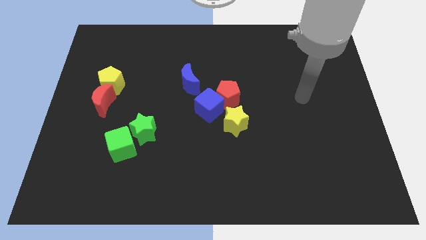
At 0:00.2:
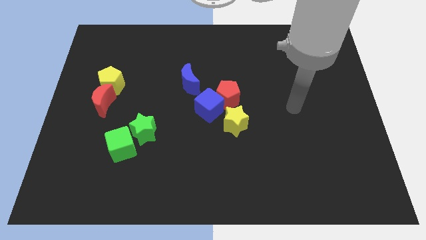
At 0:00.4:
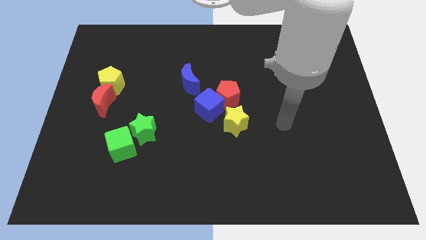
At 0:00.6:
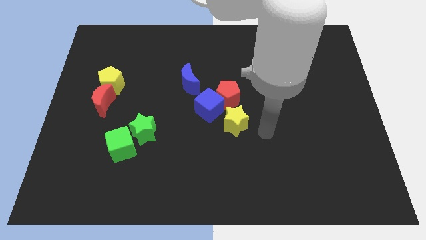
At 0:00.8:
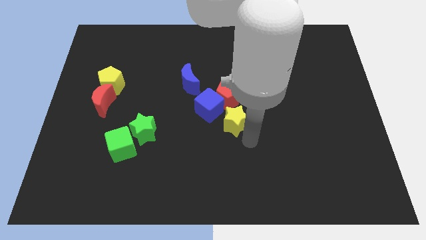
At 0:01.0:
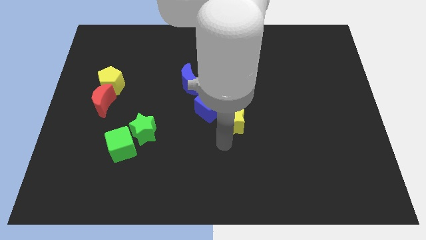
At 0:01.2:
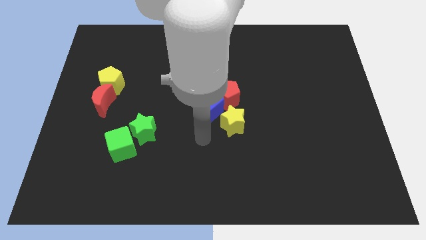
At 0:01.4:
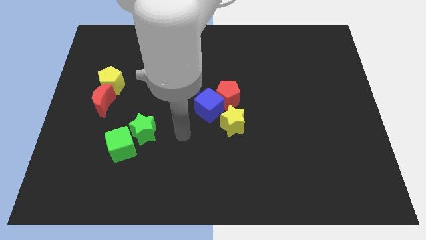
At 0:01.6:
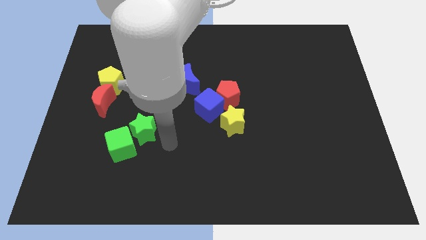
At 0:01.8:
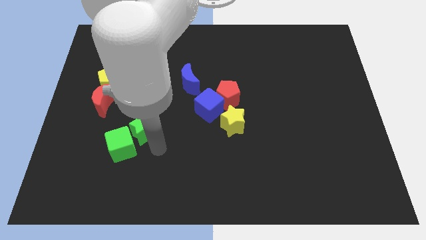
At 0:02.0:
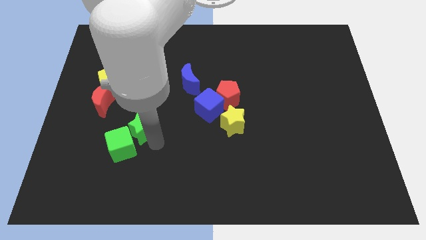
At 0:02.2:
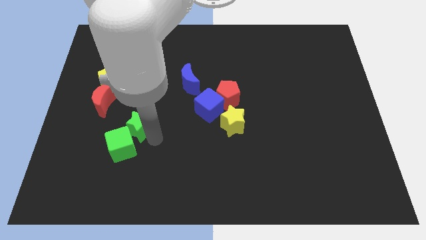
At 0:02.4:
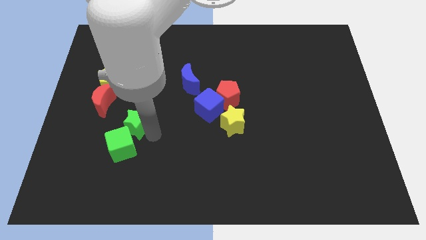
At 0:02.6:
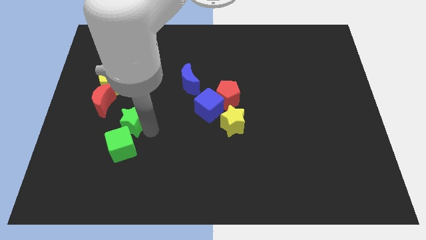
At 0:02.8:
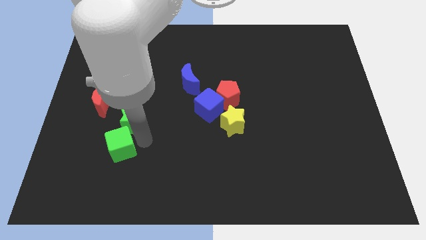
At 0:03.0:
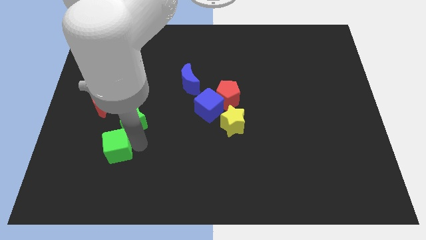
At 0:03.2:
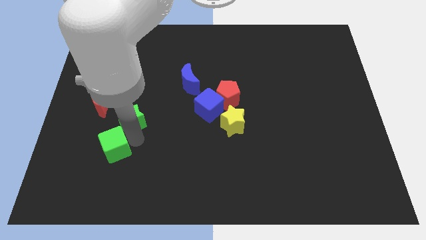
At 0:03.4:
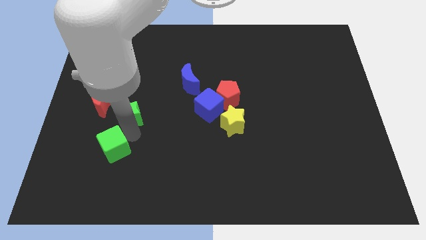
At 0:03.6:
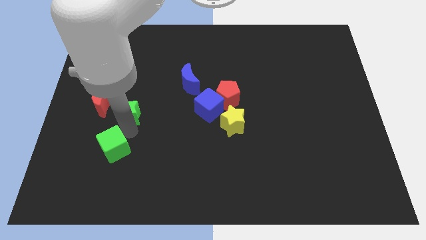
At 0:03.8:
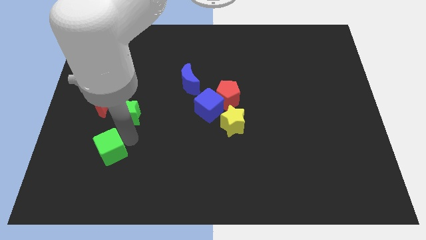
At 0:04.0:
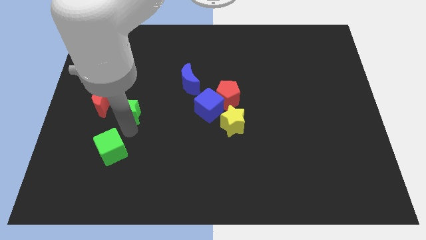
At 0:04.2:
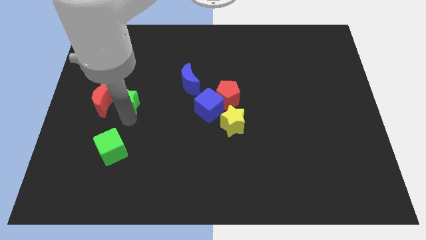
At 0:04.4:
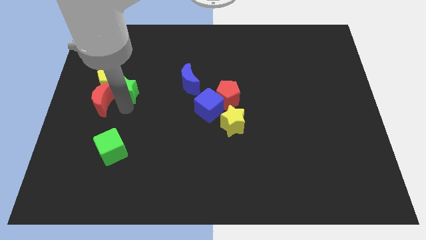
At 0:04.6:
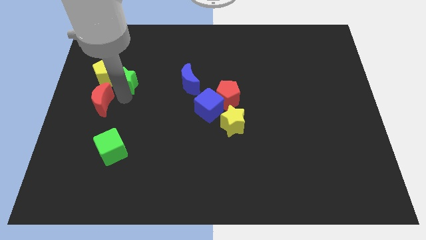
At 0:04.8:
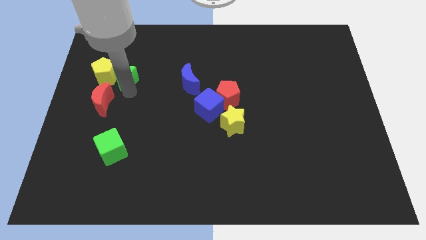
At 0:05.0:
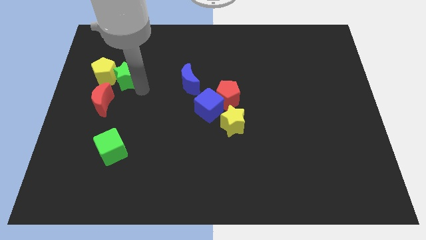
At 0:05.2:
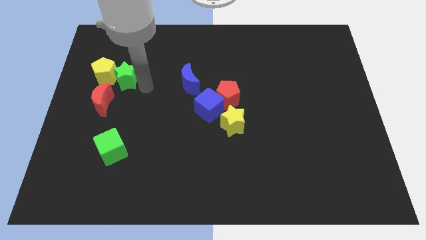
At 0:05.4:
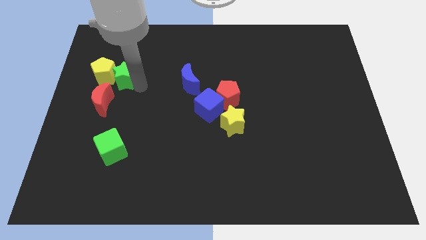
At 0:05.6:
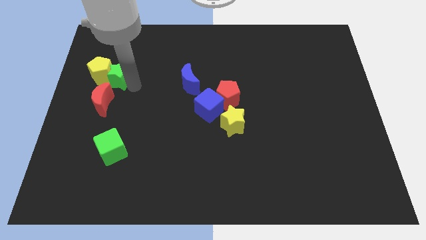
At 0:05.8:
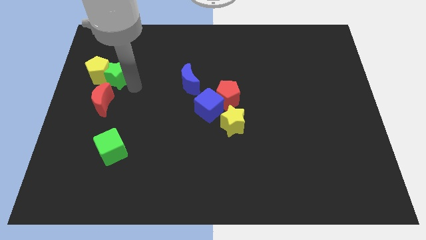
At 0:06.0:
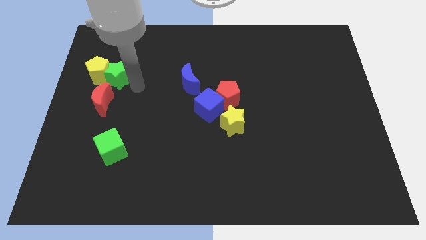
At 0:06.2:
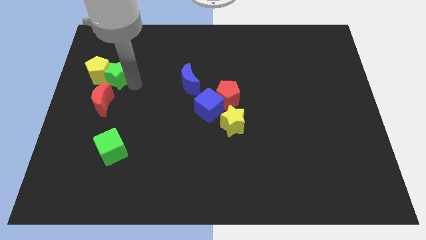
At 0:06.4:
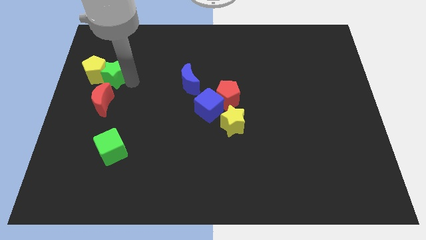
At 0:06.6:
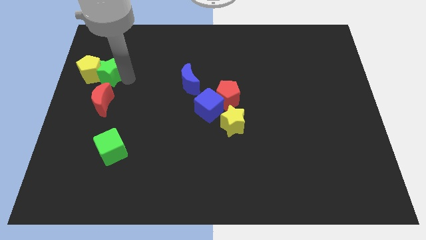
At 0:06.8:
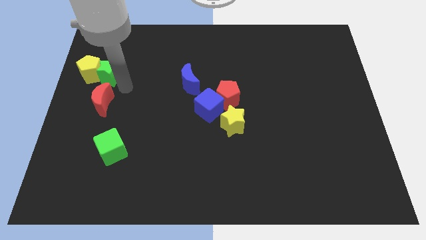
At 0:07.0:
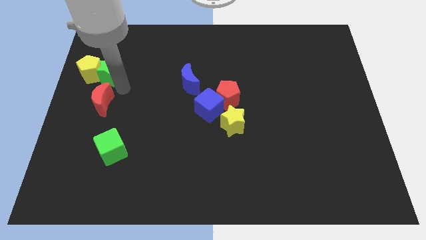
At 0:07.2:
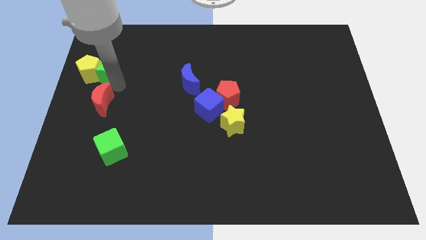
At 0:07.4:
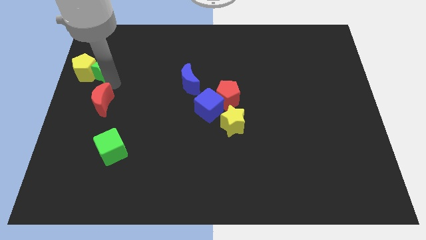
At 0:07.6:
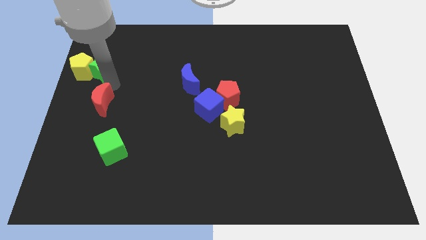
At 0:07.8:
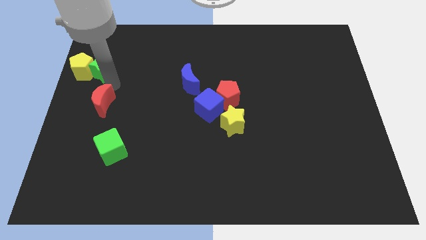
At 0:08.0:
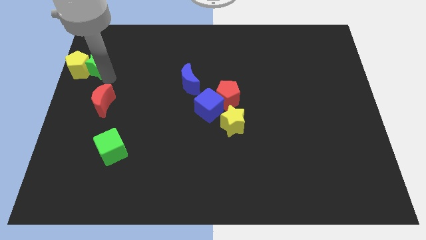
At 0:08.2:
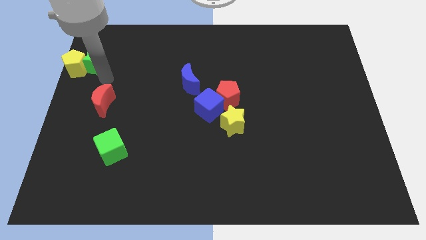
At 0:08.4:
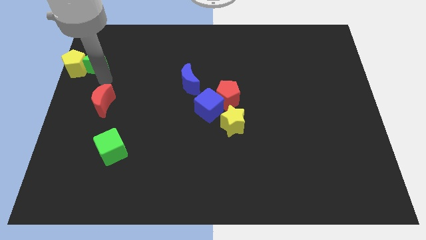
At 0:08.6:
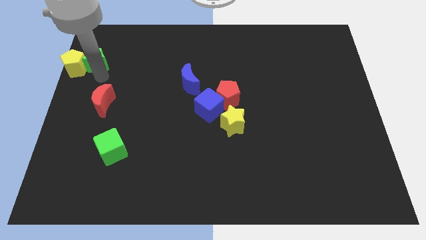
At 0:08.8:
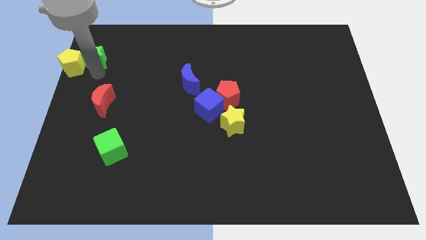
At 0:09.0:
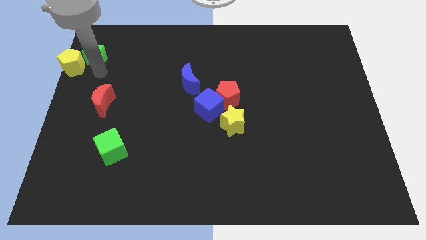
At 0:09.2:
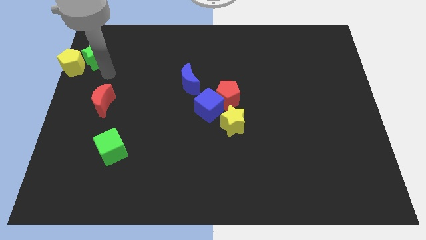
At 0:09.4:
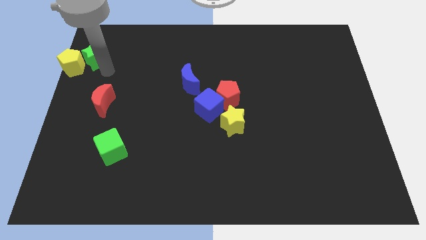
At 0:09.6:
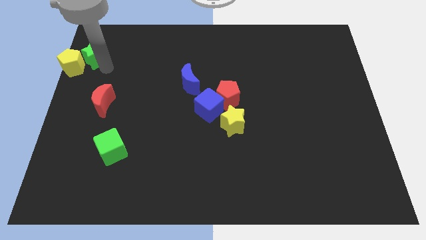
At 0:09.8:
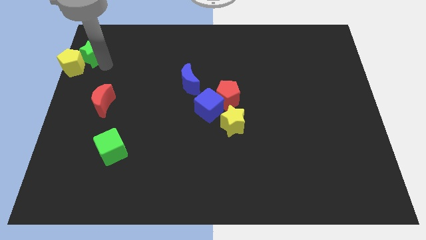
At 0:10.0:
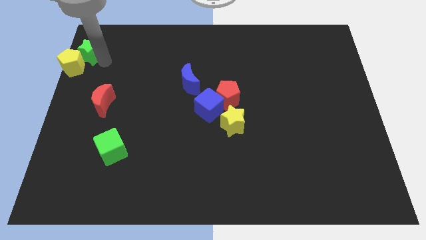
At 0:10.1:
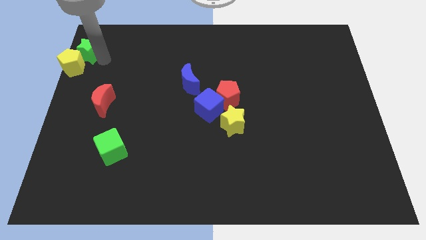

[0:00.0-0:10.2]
move the green star to the top left of the board

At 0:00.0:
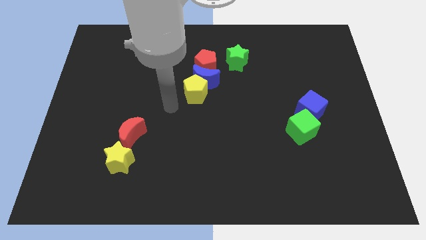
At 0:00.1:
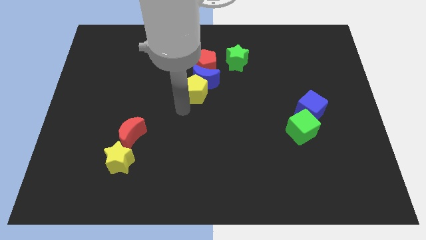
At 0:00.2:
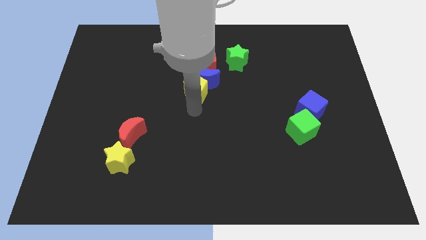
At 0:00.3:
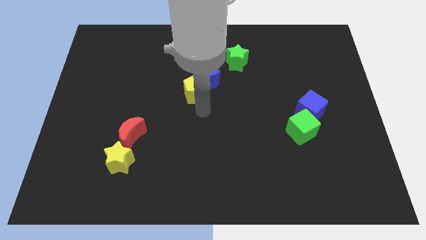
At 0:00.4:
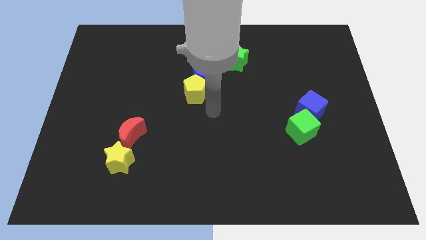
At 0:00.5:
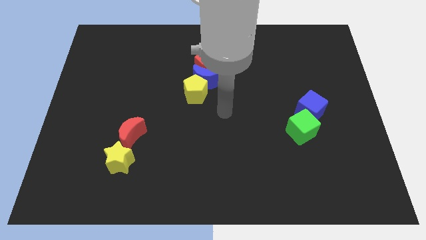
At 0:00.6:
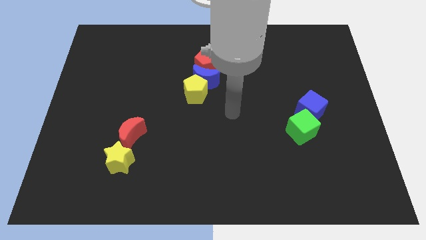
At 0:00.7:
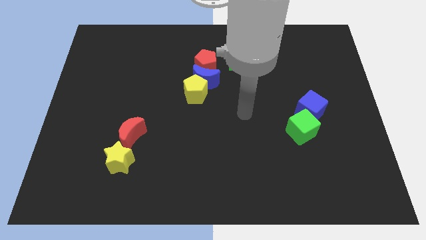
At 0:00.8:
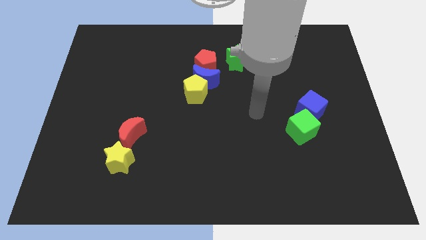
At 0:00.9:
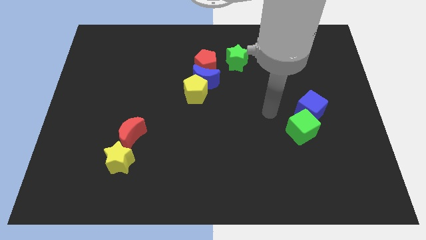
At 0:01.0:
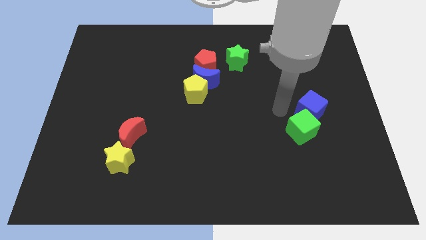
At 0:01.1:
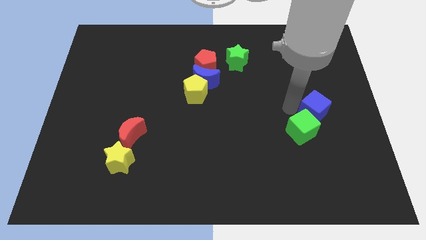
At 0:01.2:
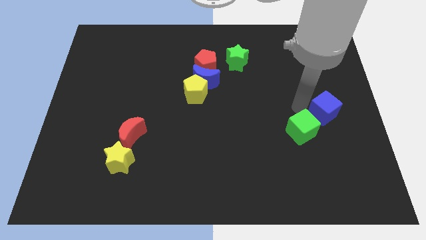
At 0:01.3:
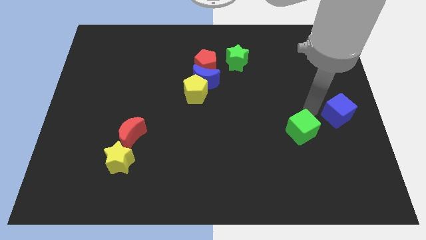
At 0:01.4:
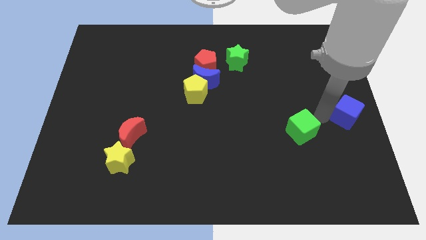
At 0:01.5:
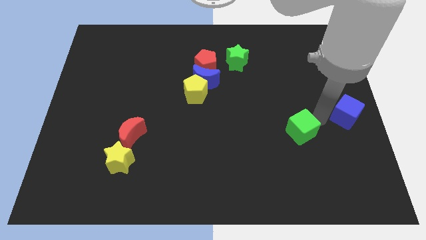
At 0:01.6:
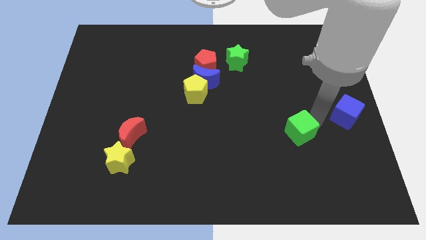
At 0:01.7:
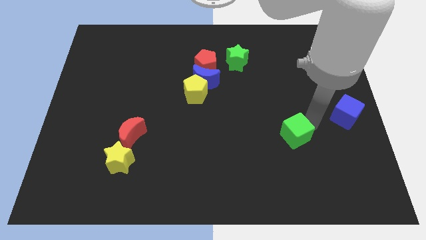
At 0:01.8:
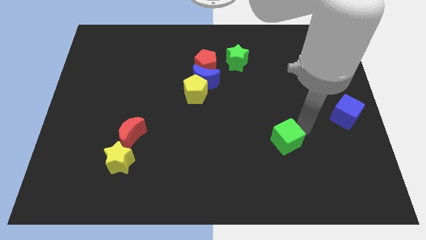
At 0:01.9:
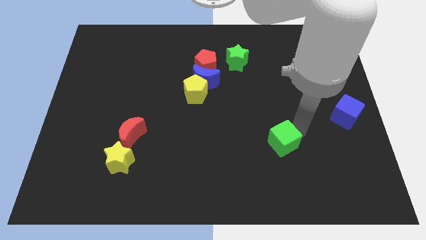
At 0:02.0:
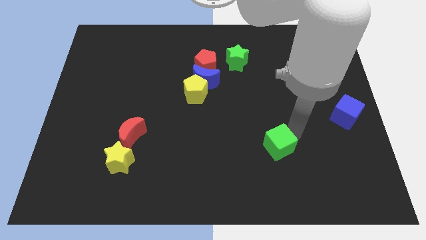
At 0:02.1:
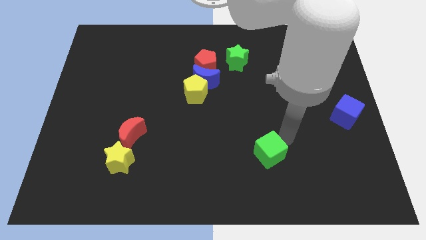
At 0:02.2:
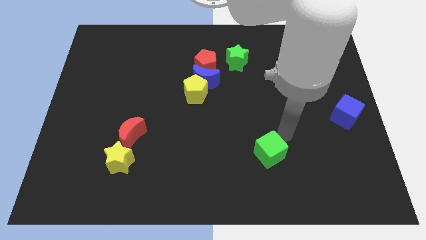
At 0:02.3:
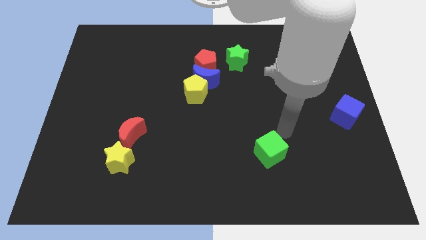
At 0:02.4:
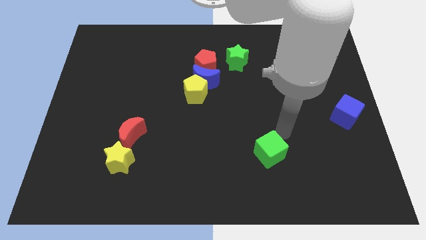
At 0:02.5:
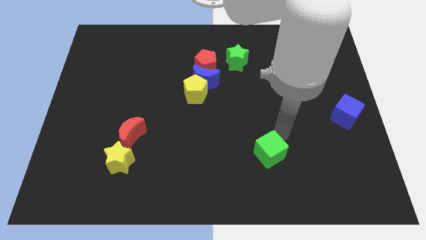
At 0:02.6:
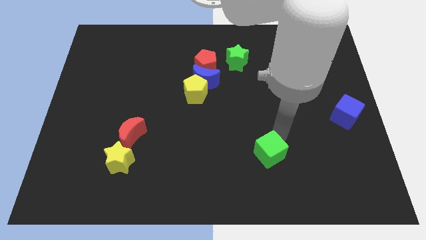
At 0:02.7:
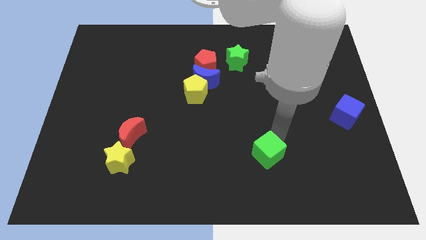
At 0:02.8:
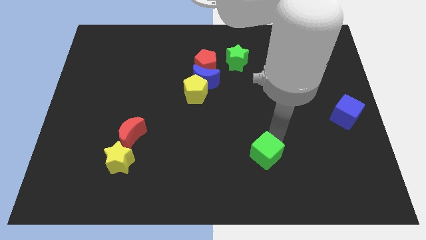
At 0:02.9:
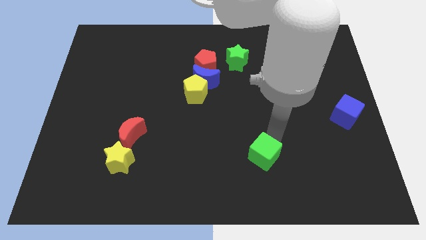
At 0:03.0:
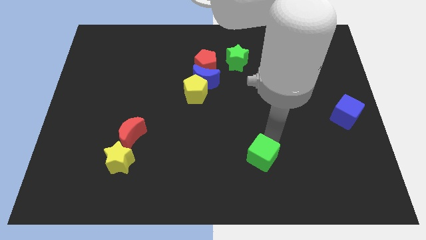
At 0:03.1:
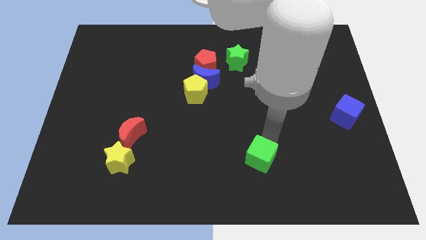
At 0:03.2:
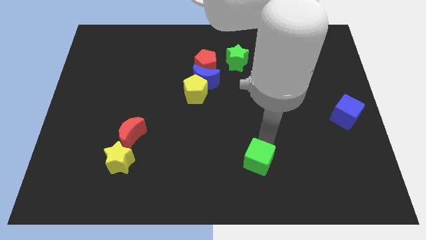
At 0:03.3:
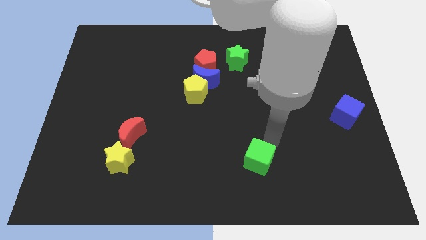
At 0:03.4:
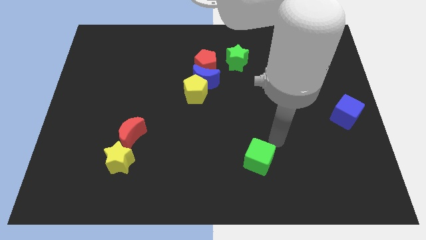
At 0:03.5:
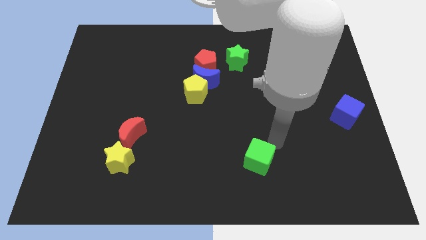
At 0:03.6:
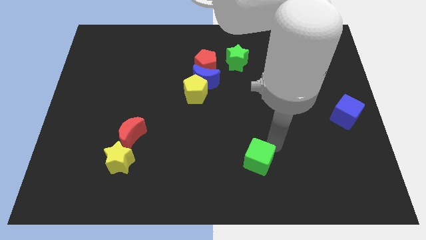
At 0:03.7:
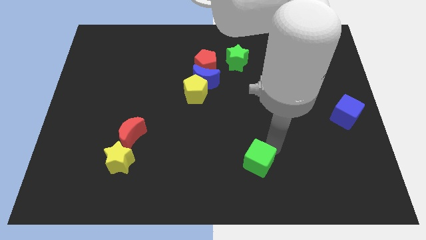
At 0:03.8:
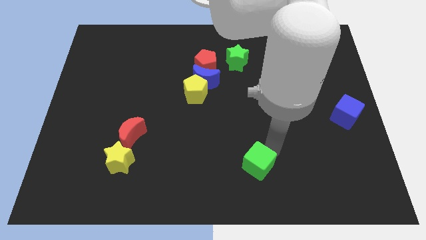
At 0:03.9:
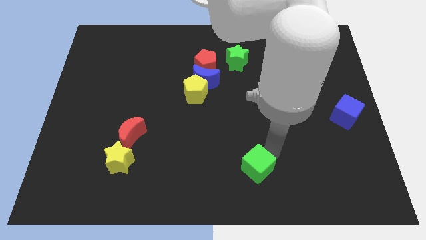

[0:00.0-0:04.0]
move the green cube to the bottom
